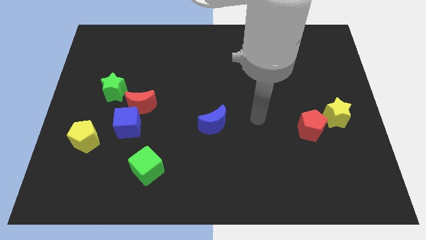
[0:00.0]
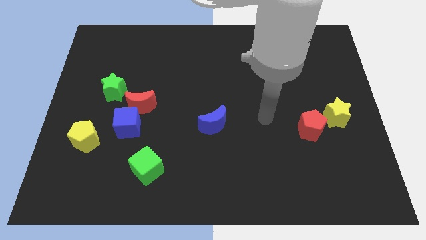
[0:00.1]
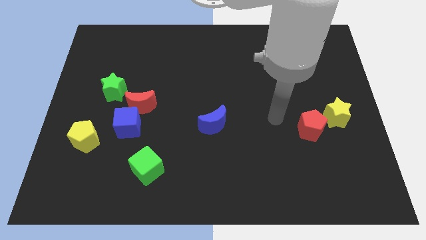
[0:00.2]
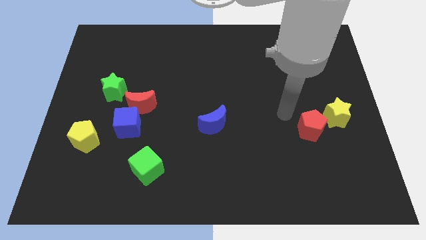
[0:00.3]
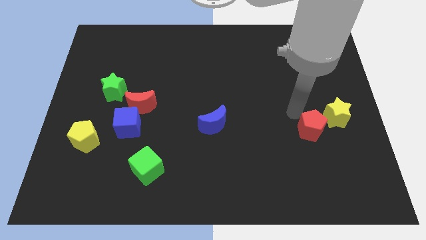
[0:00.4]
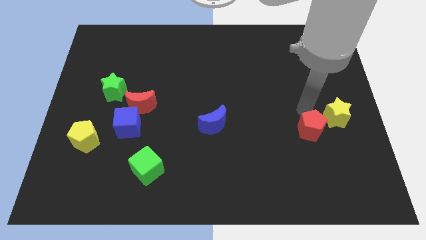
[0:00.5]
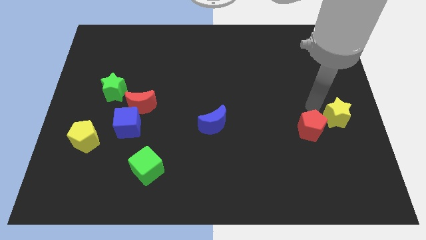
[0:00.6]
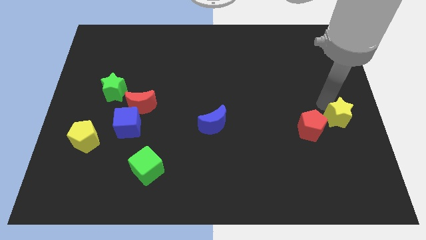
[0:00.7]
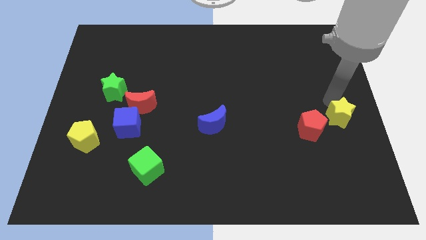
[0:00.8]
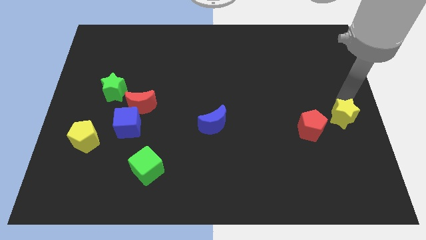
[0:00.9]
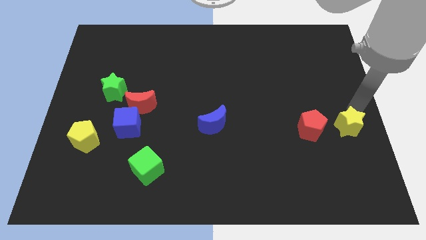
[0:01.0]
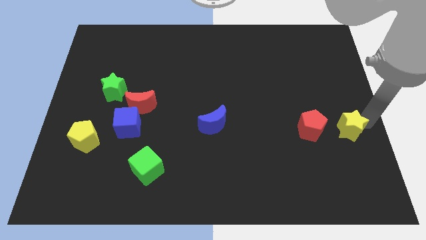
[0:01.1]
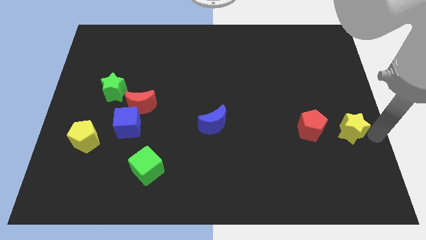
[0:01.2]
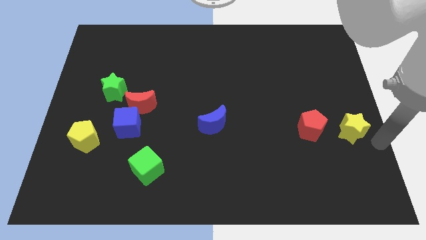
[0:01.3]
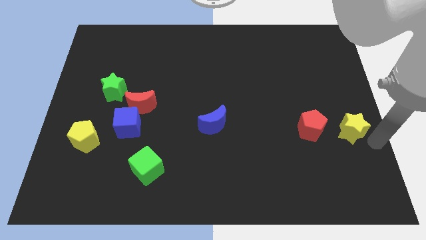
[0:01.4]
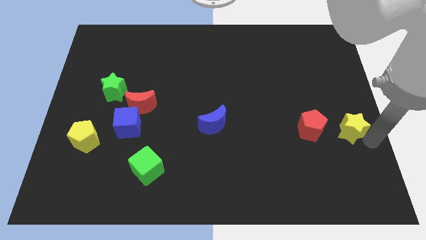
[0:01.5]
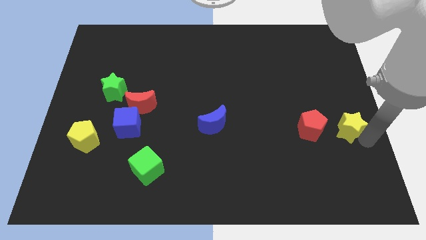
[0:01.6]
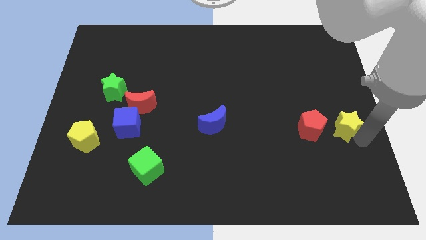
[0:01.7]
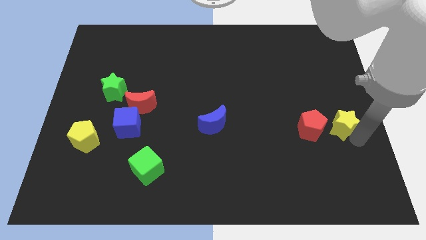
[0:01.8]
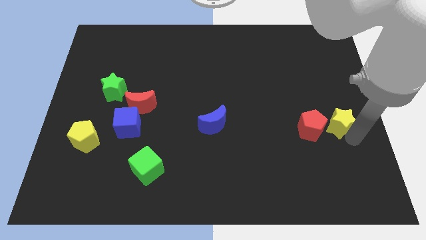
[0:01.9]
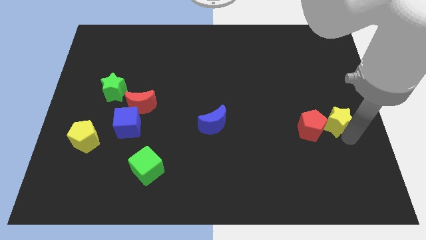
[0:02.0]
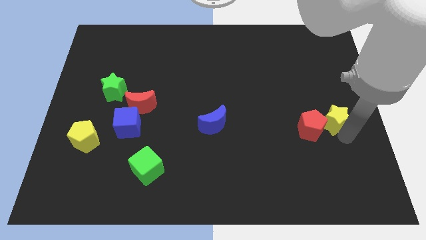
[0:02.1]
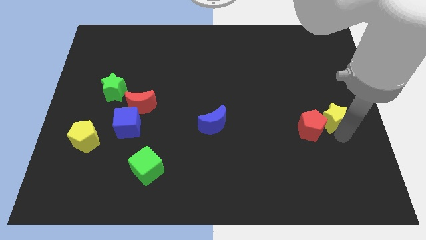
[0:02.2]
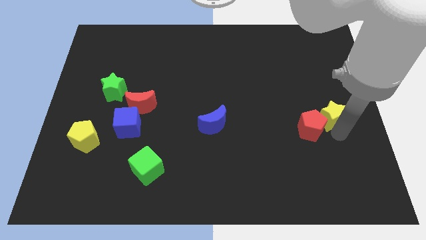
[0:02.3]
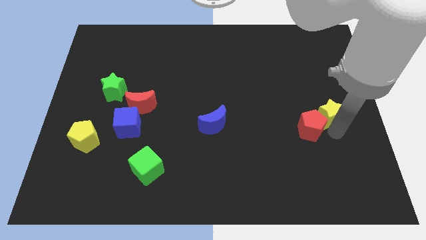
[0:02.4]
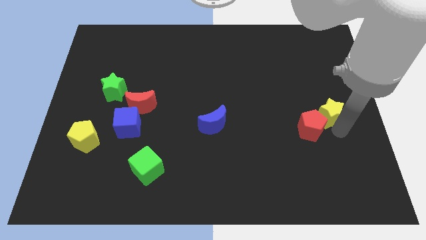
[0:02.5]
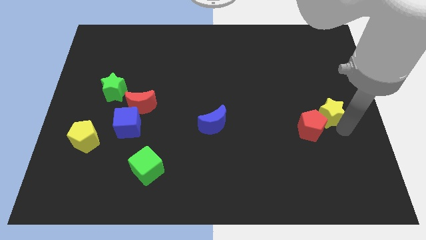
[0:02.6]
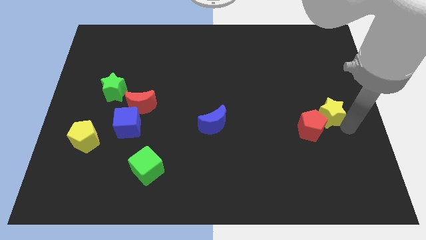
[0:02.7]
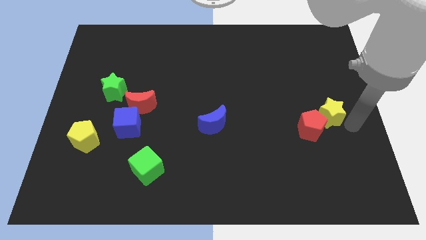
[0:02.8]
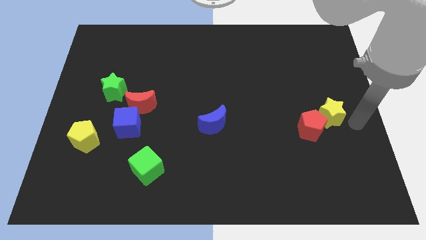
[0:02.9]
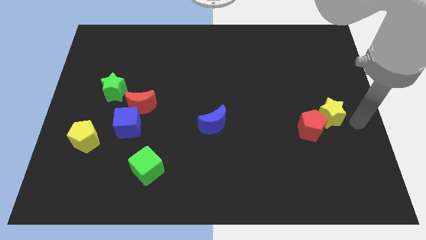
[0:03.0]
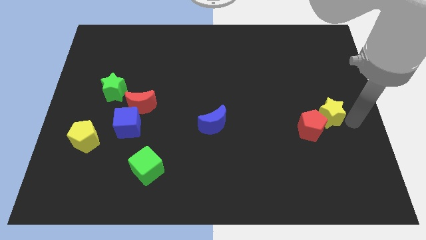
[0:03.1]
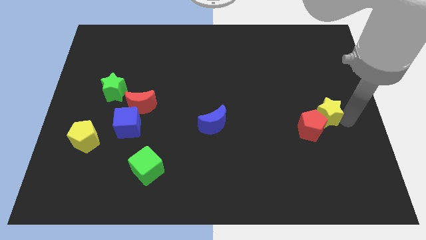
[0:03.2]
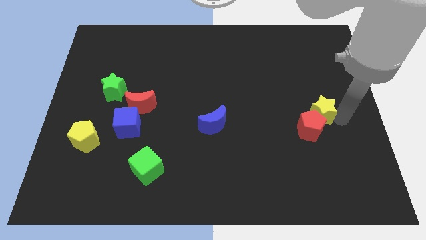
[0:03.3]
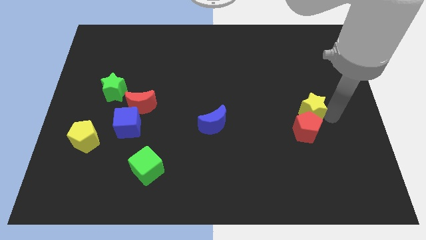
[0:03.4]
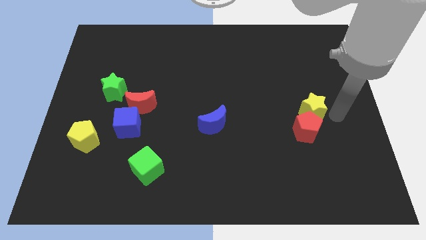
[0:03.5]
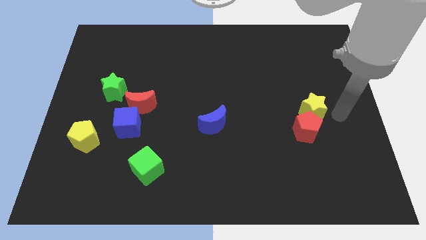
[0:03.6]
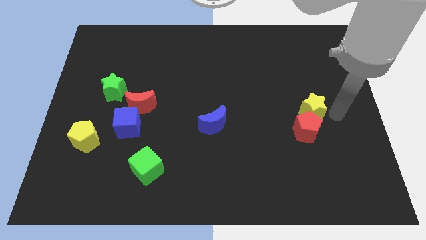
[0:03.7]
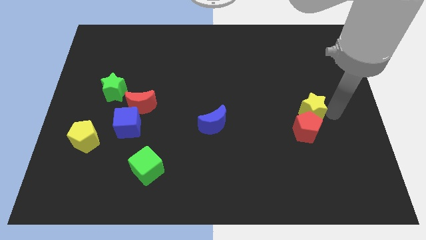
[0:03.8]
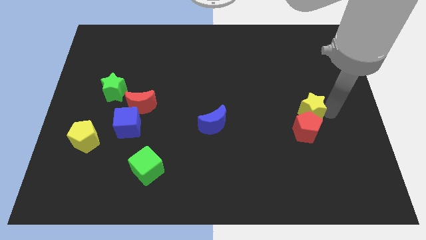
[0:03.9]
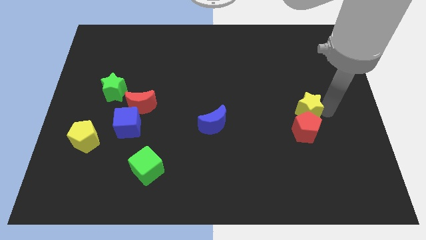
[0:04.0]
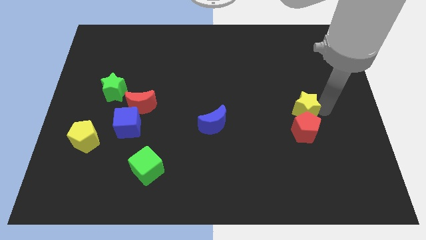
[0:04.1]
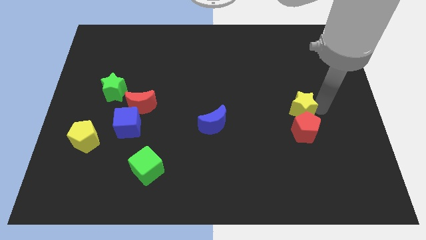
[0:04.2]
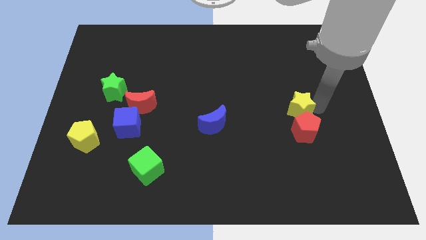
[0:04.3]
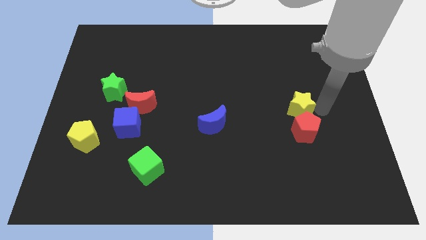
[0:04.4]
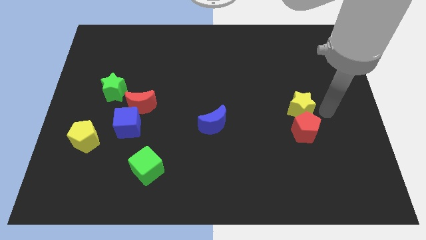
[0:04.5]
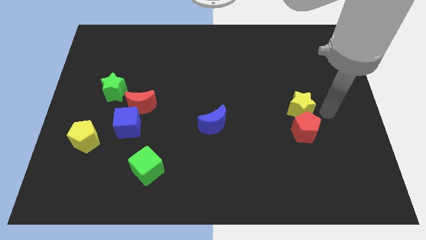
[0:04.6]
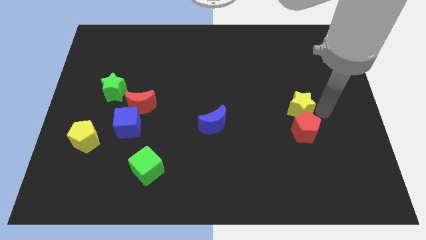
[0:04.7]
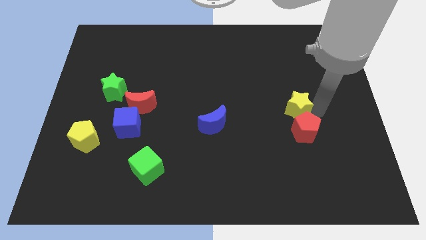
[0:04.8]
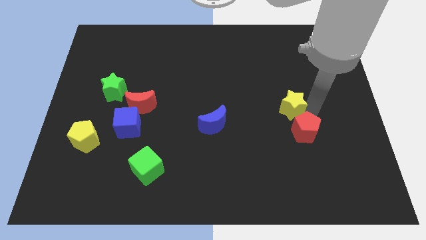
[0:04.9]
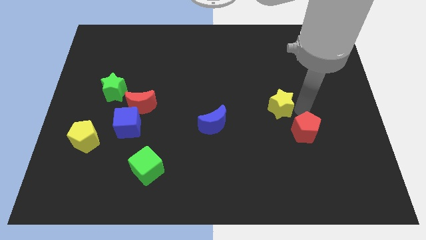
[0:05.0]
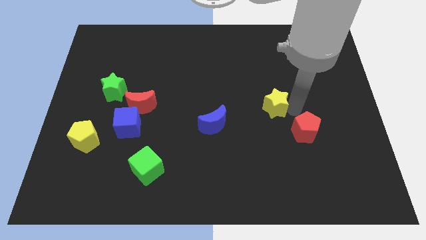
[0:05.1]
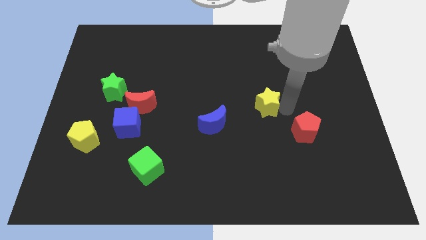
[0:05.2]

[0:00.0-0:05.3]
slide the yellow star to the middle of the board
